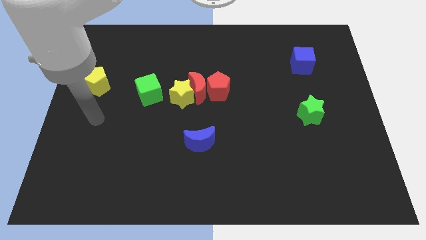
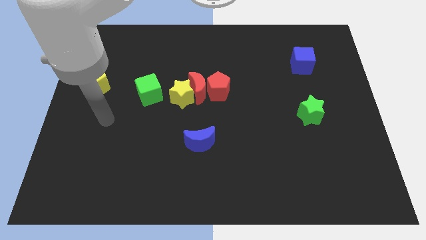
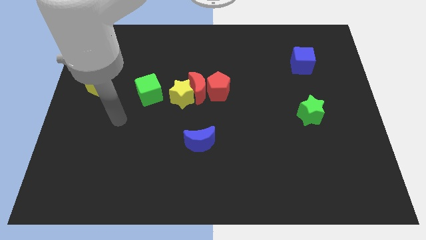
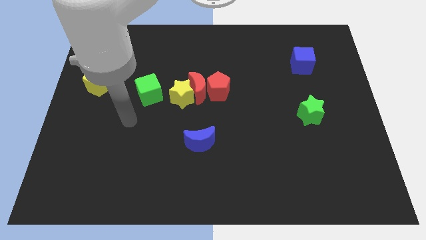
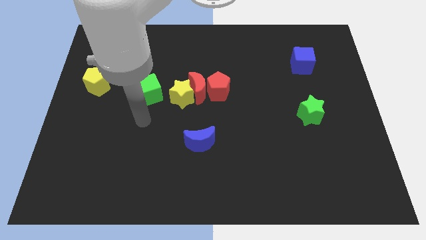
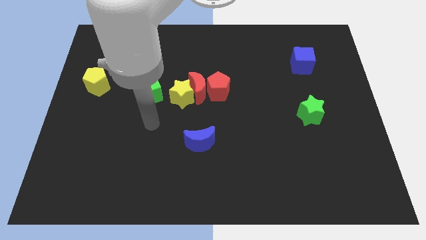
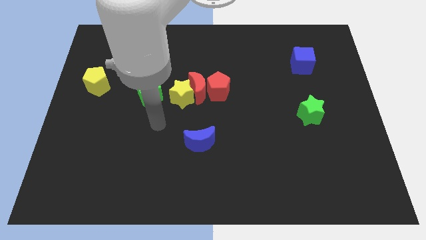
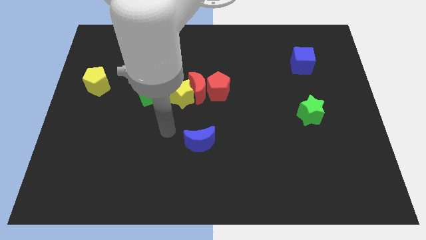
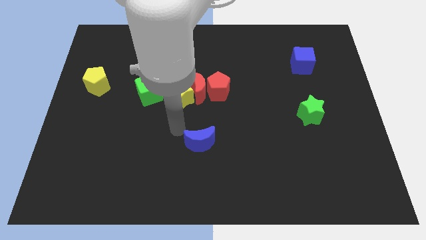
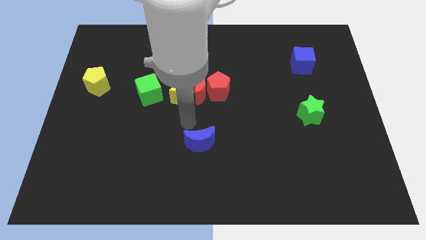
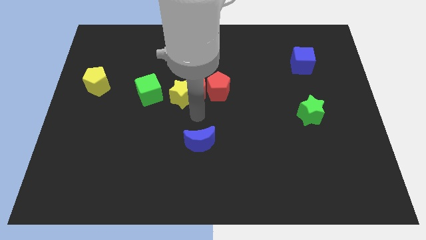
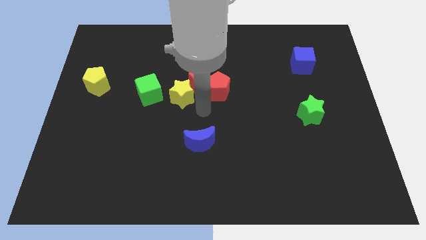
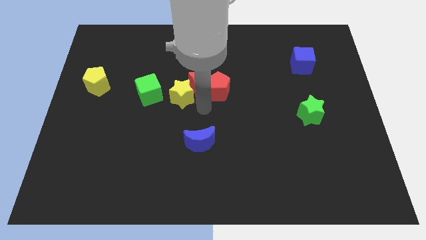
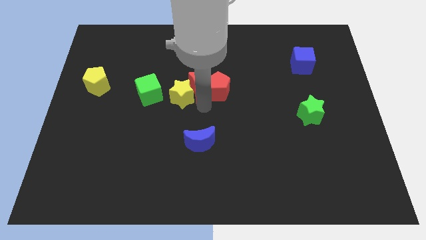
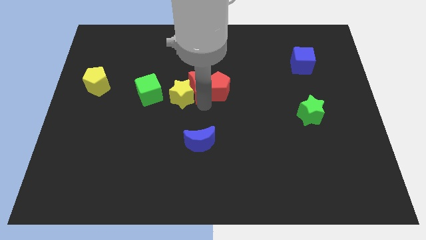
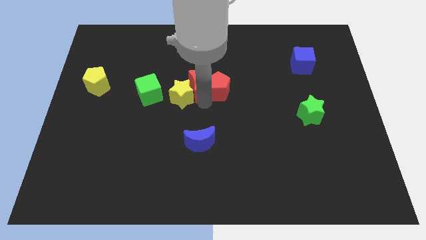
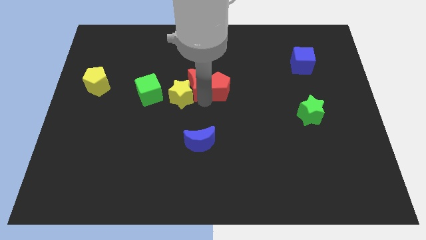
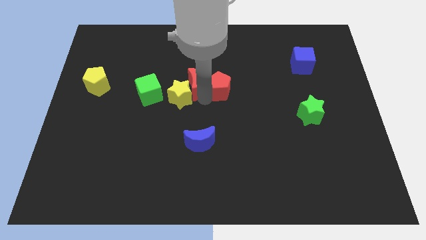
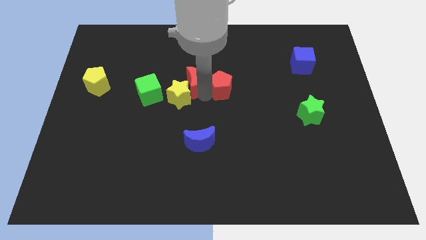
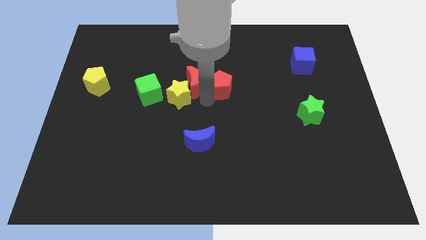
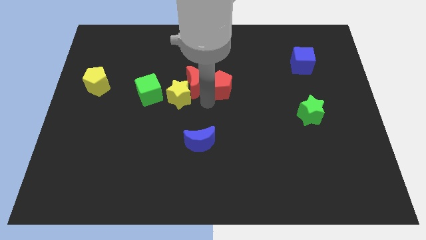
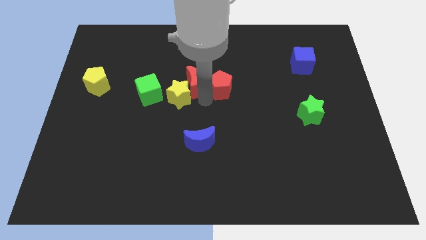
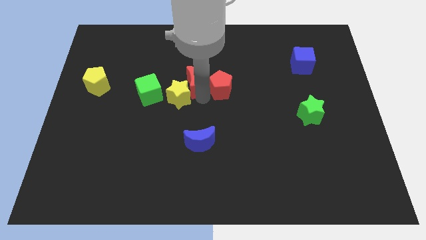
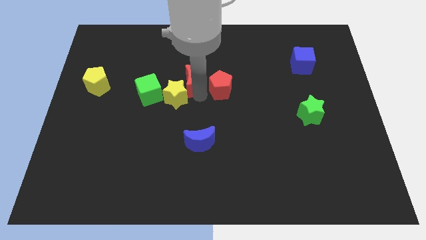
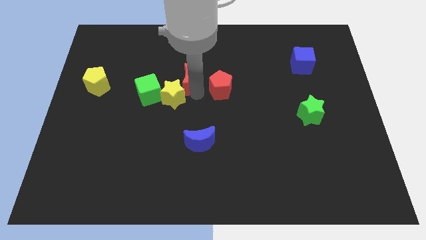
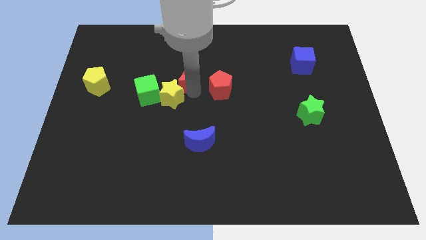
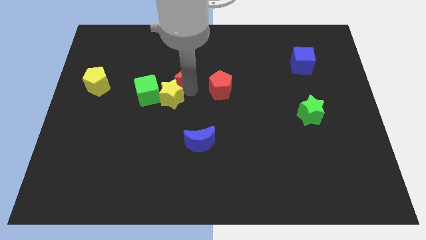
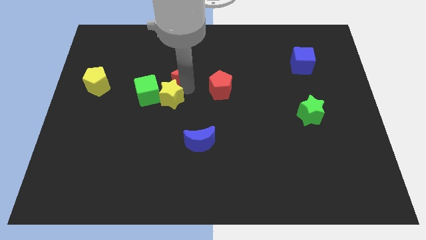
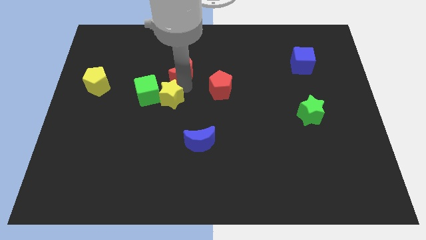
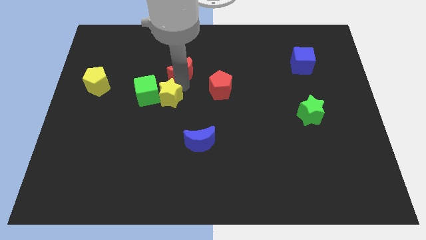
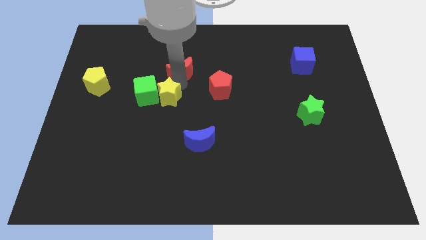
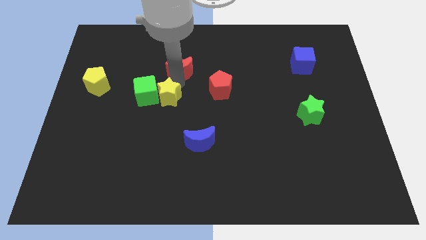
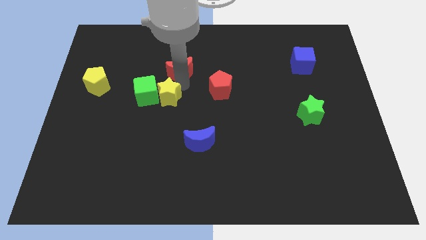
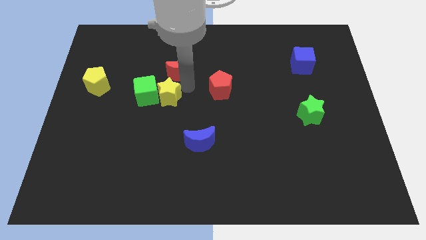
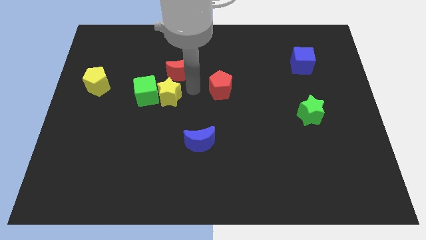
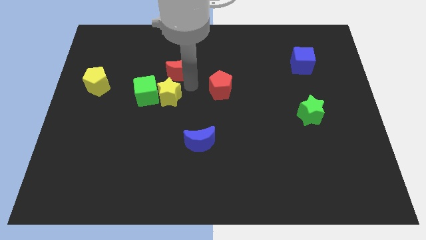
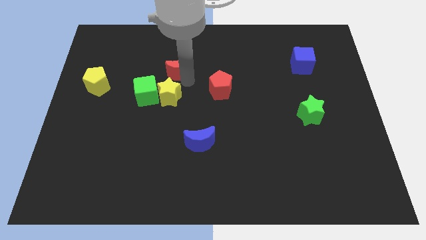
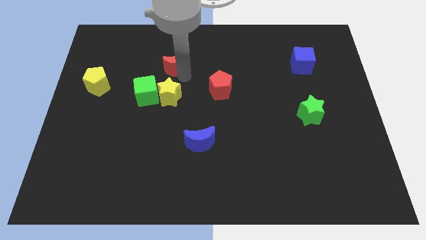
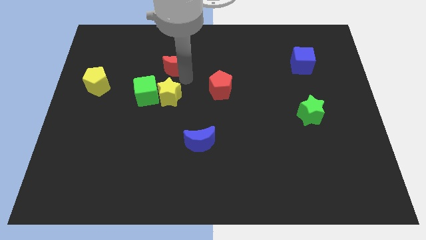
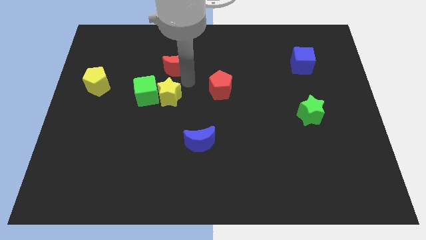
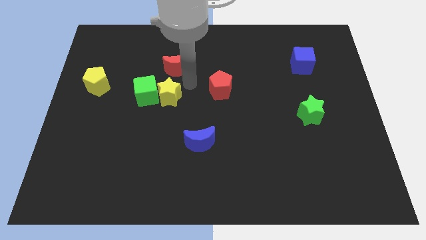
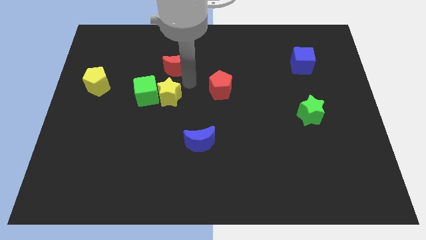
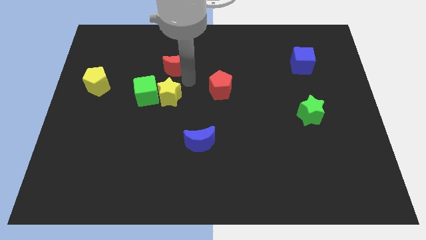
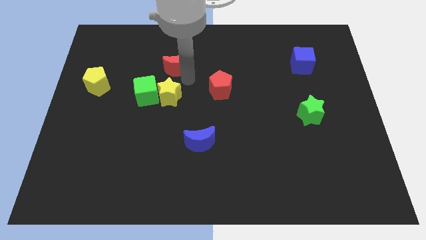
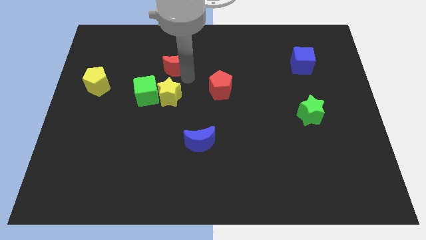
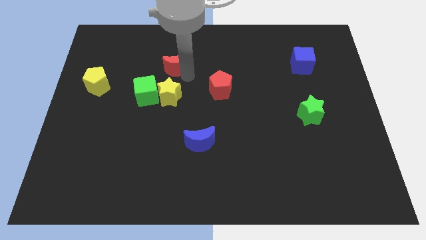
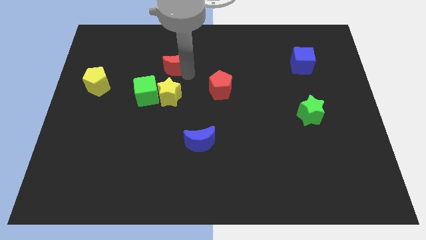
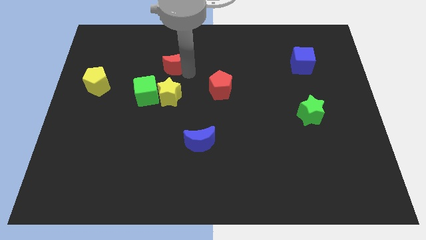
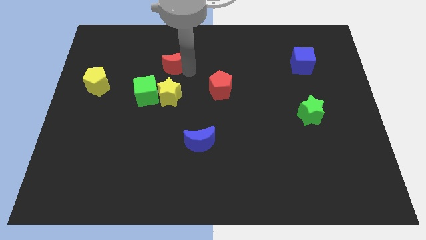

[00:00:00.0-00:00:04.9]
separate the red moon from the yellow star and red pentagon

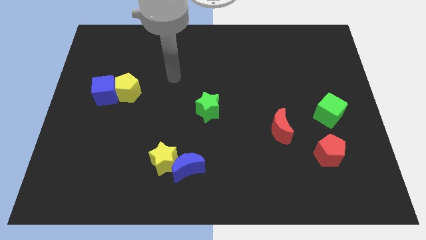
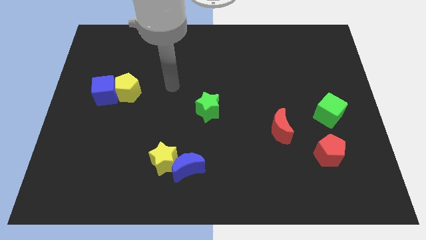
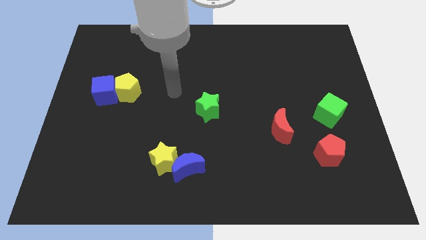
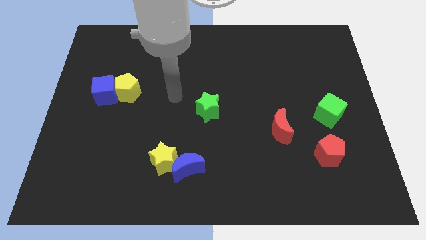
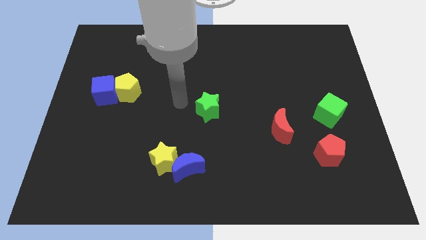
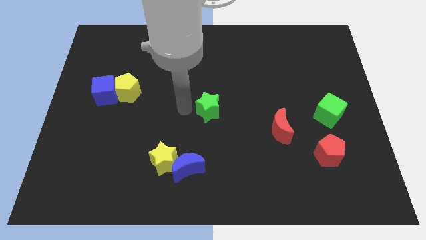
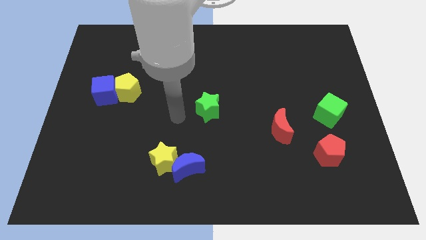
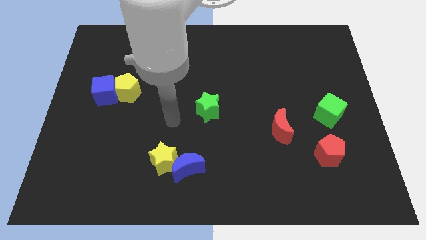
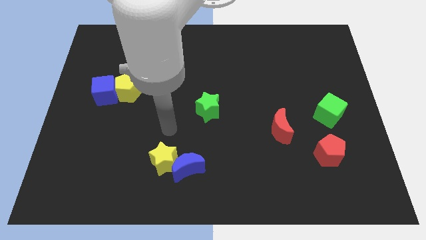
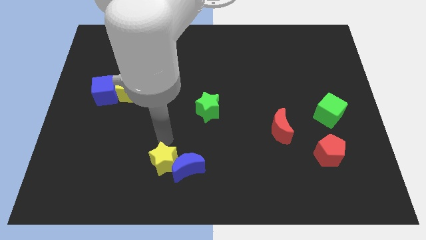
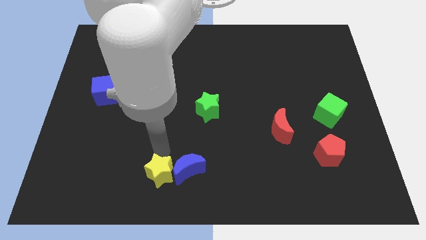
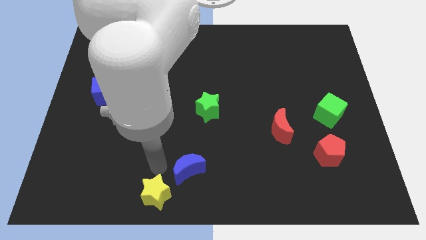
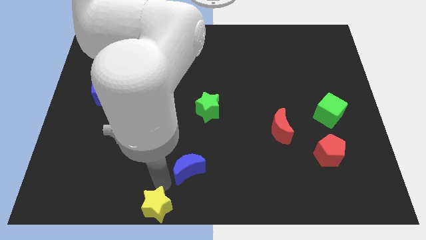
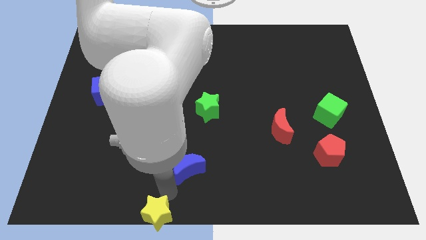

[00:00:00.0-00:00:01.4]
move the blue moon away from the yellow star

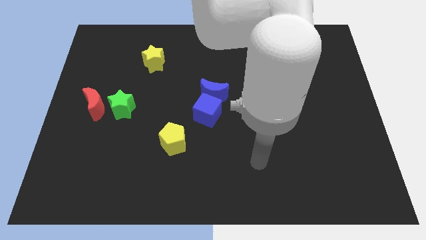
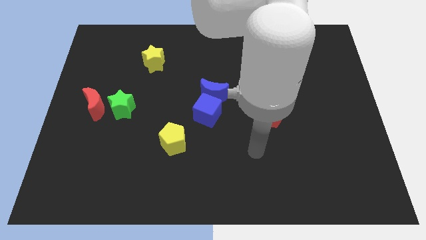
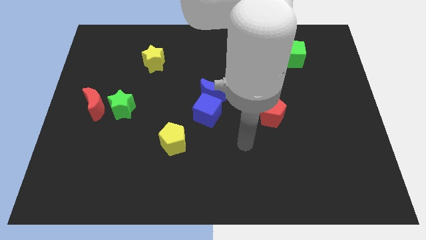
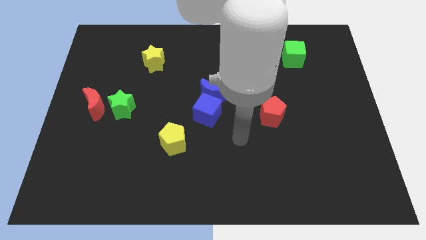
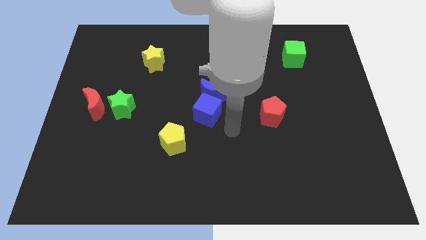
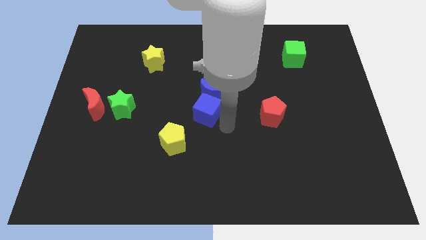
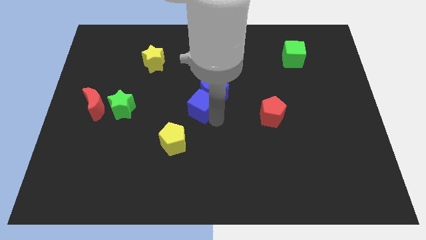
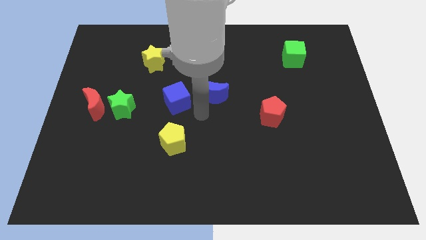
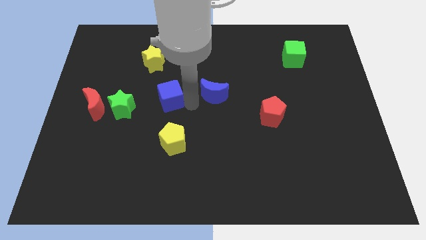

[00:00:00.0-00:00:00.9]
separate the blue moon from the blue cube

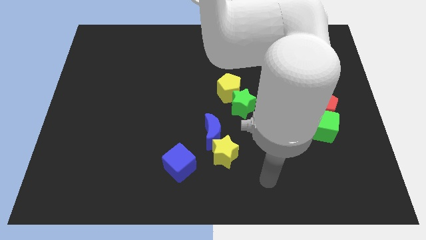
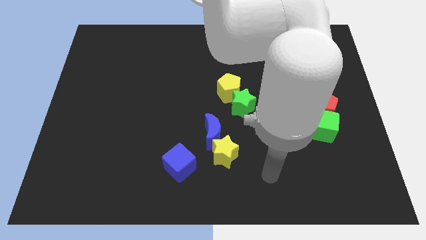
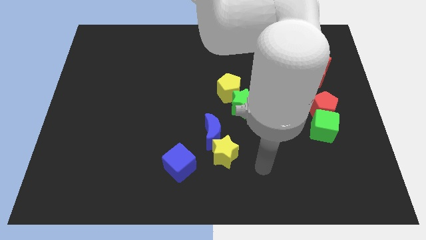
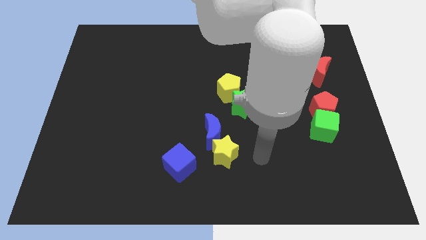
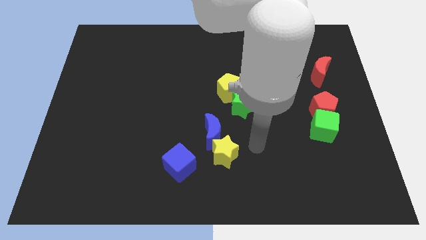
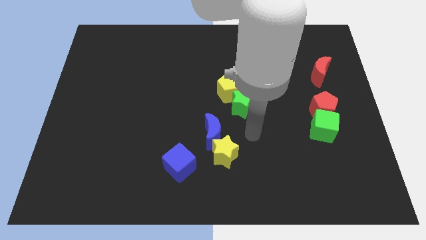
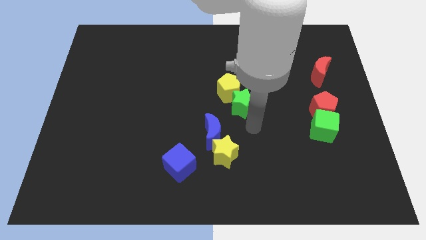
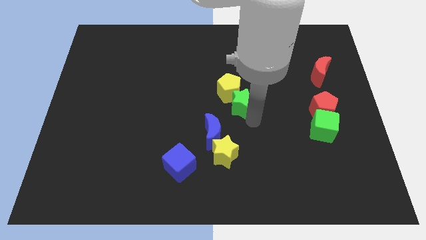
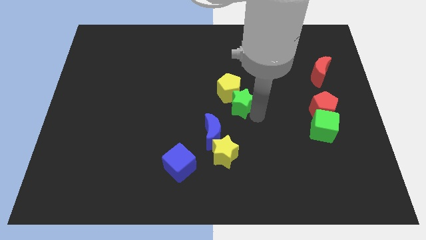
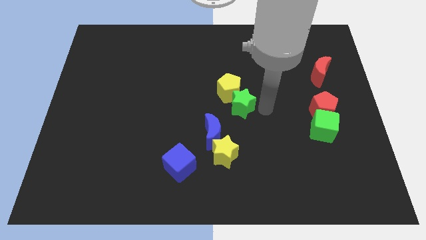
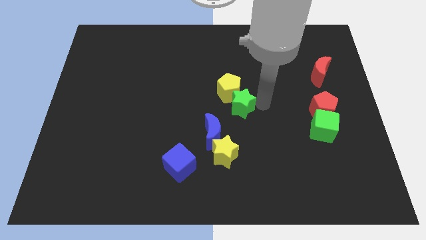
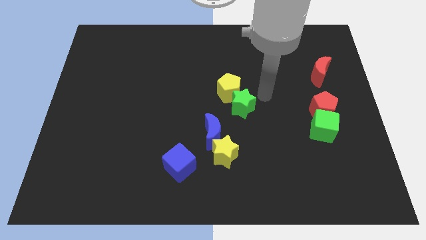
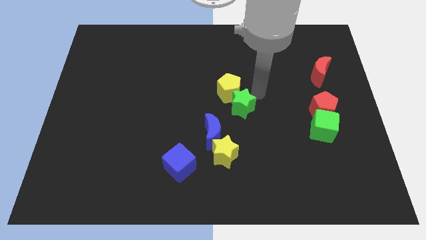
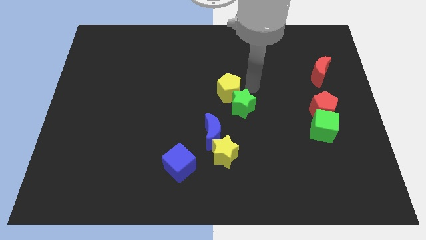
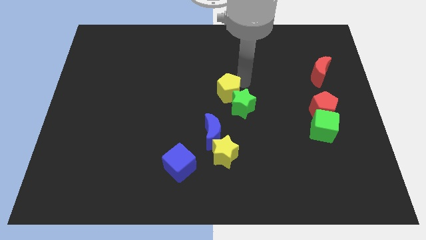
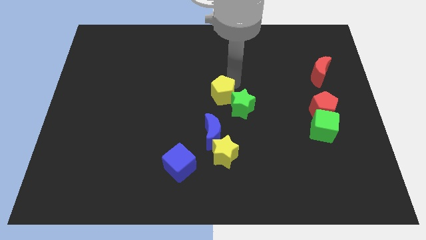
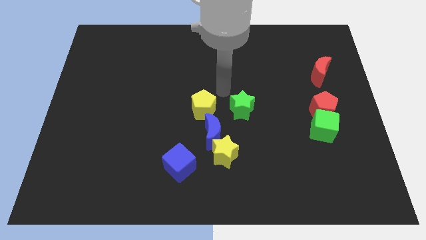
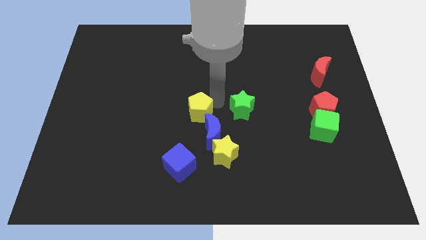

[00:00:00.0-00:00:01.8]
move the green star away from the yellow pentagon

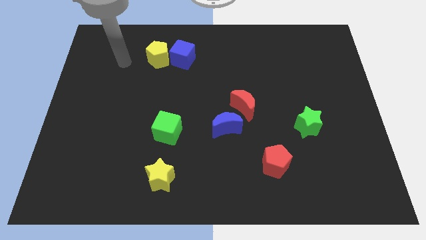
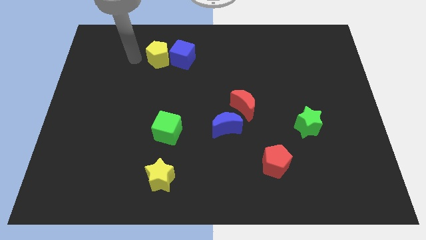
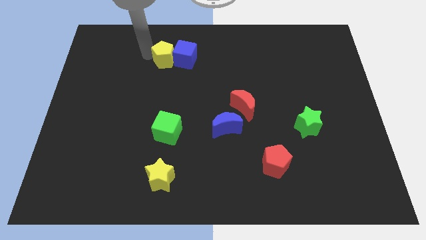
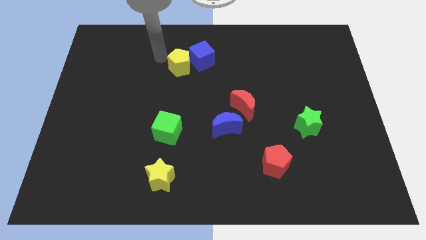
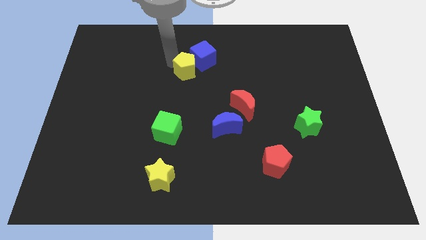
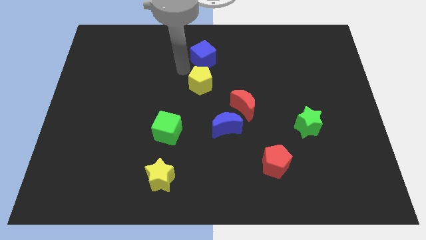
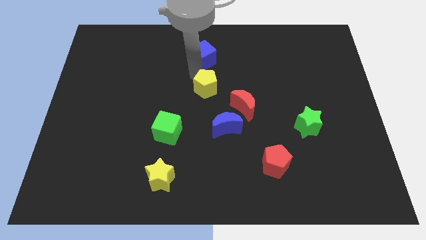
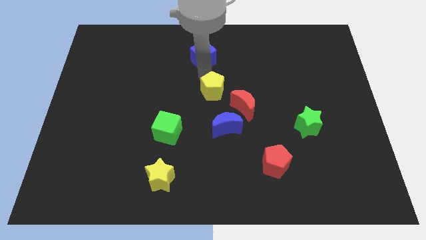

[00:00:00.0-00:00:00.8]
move the blue cube away from the yellow pentagon
